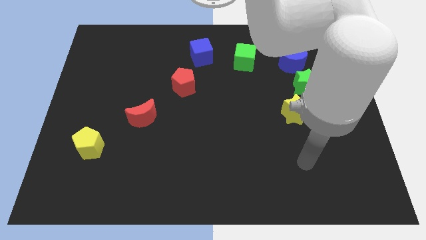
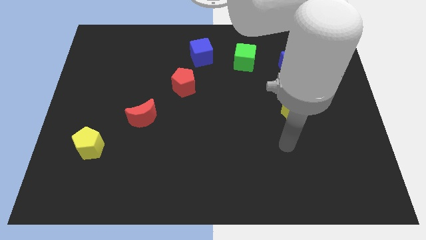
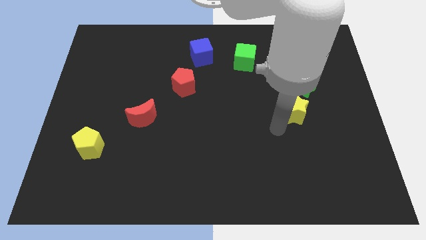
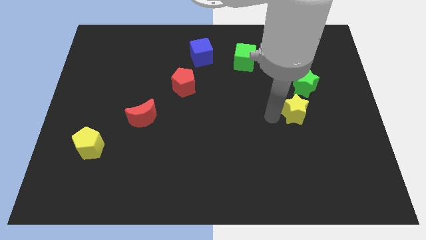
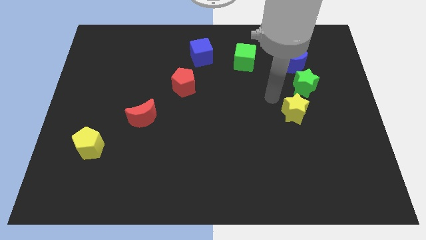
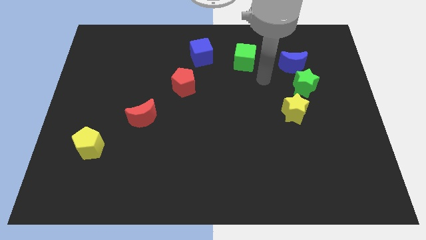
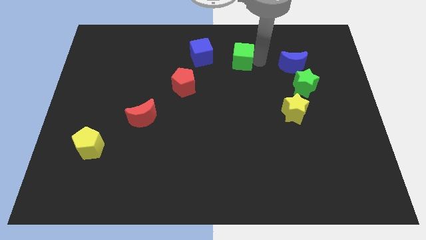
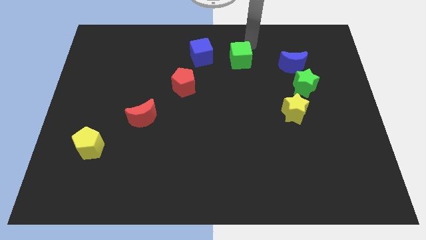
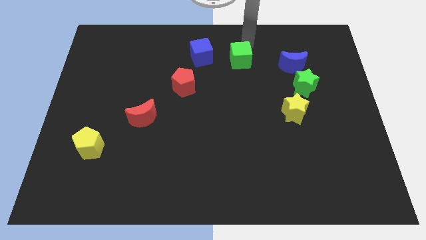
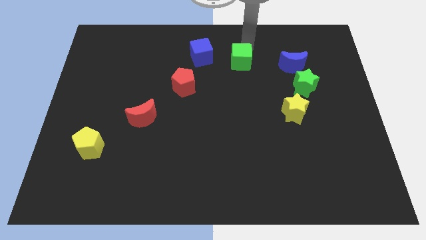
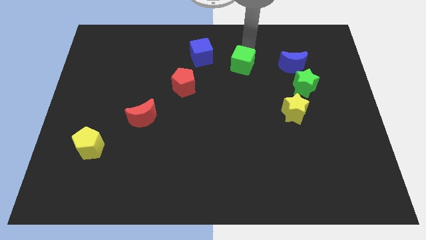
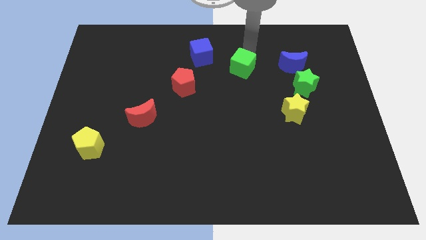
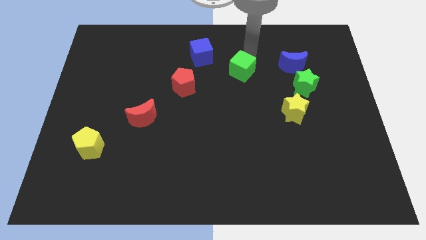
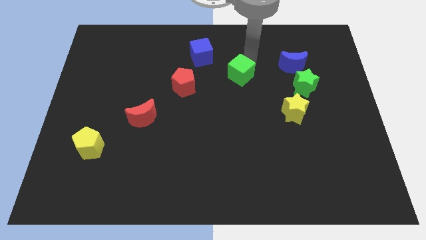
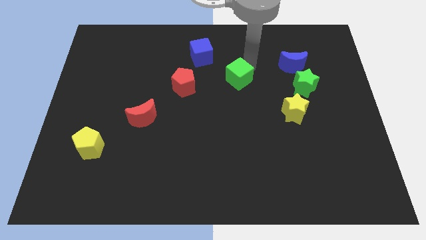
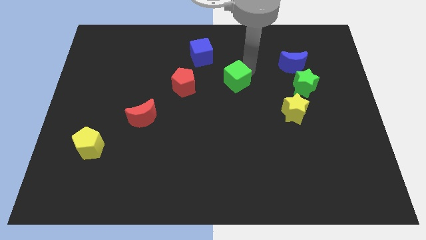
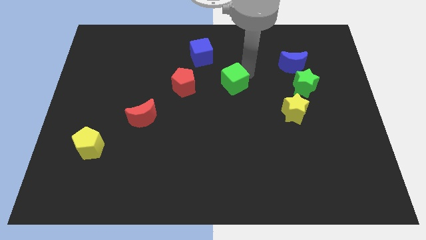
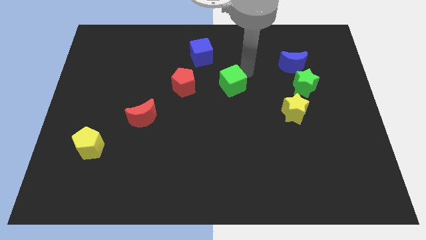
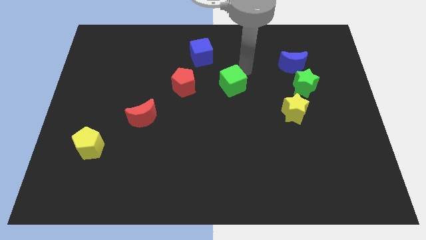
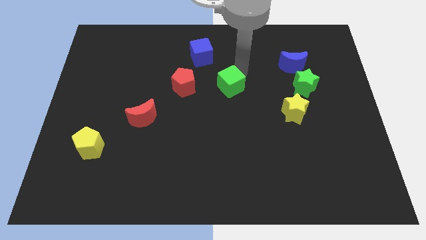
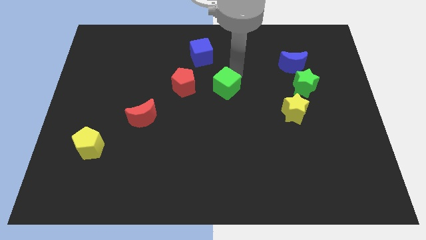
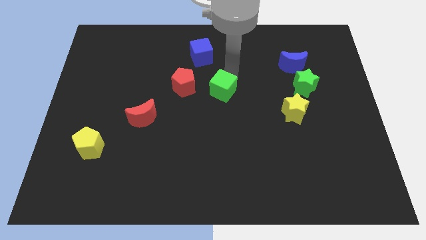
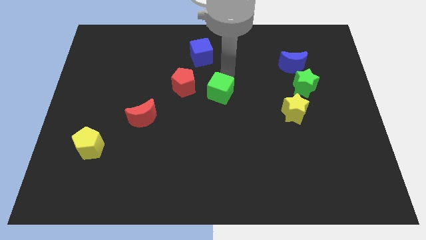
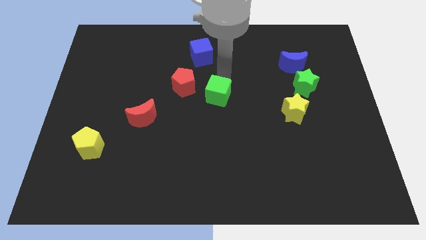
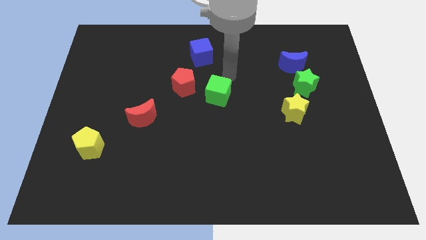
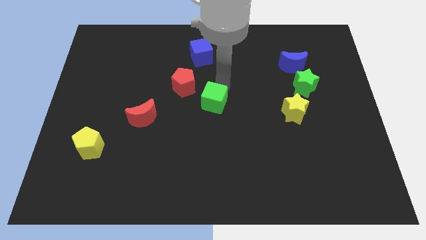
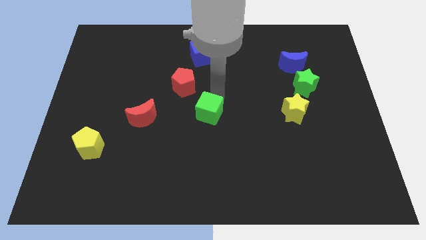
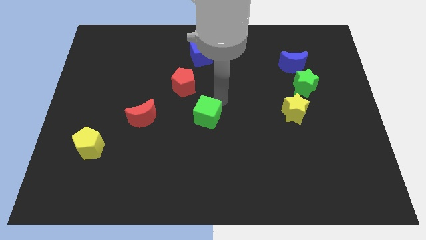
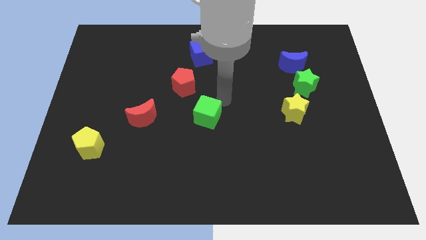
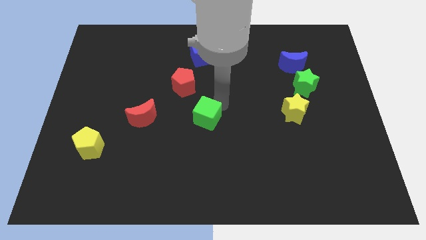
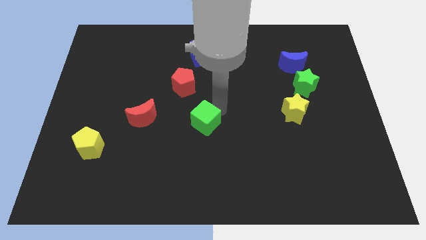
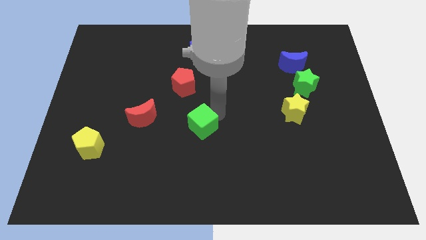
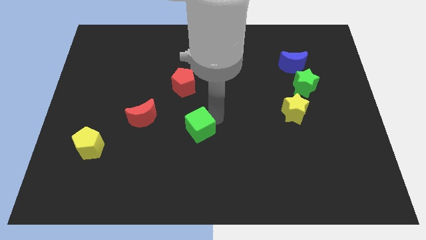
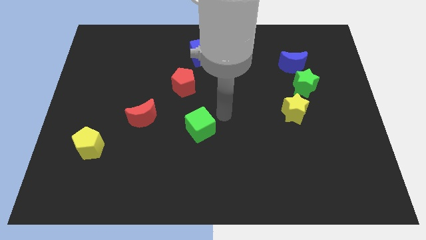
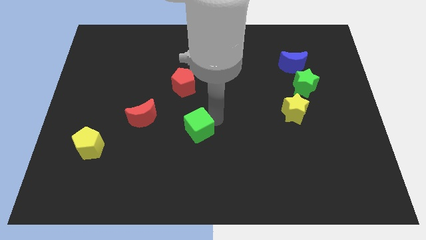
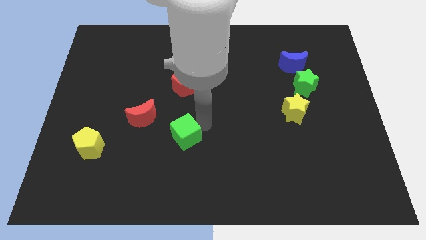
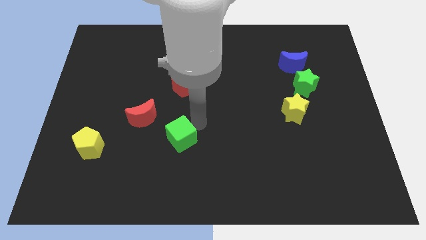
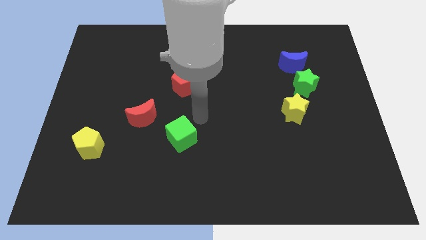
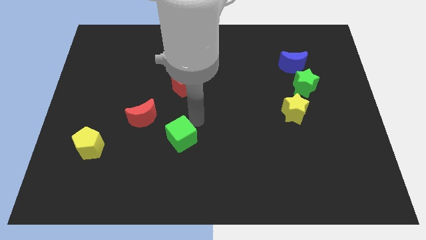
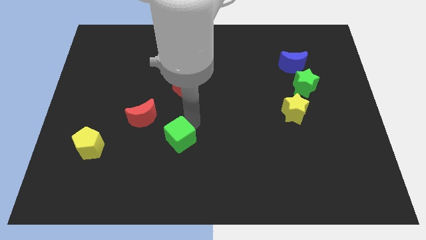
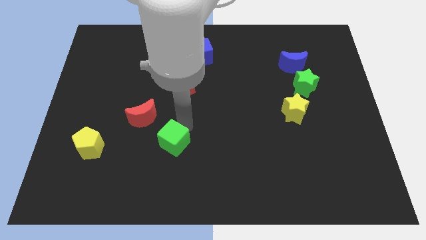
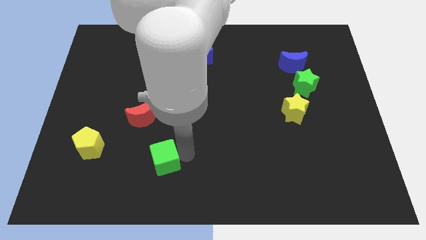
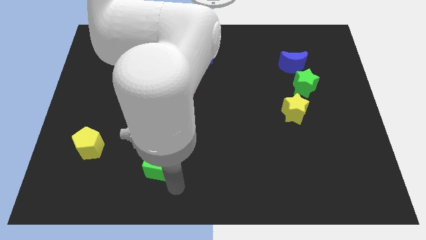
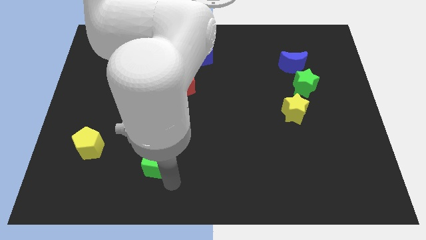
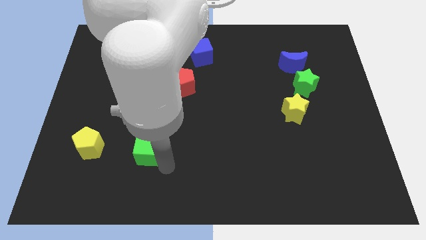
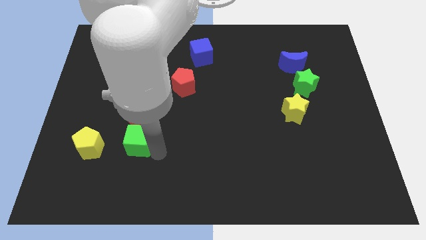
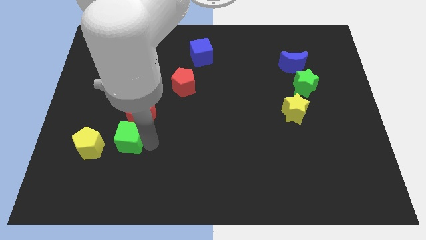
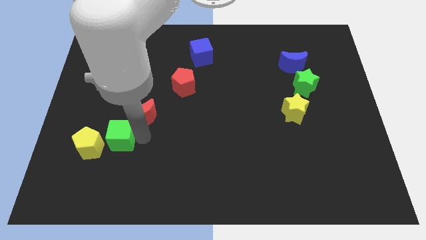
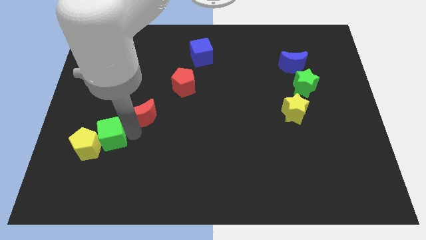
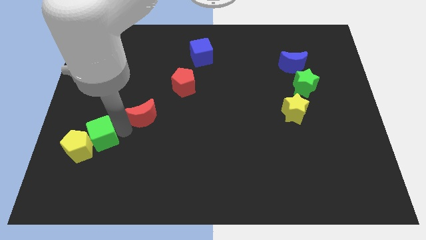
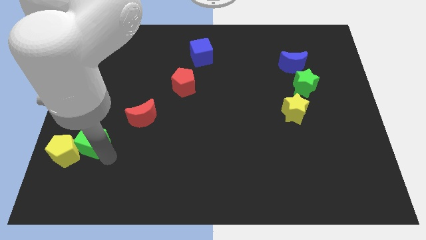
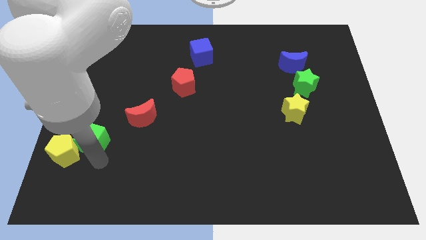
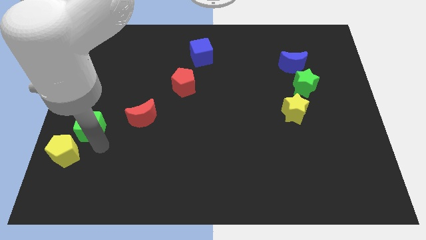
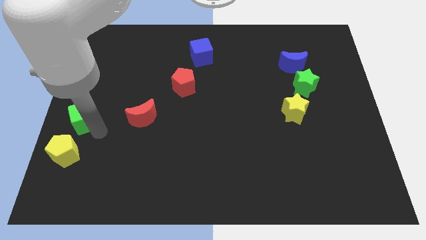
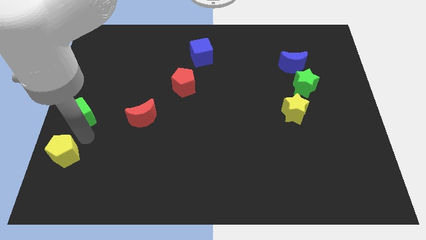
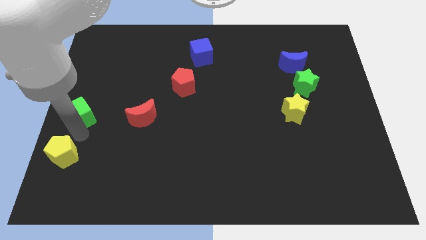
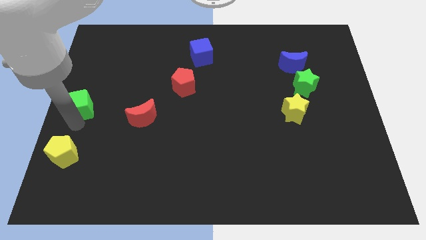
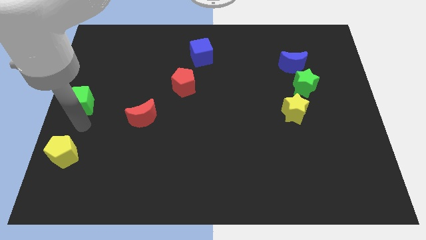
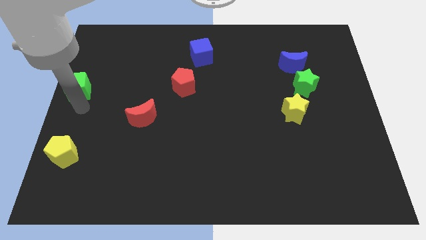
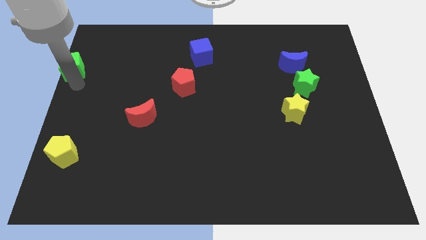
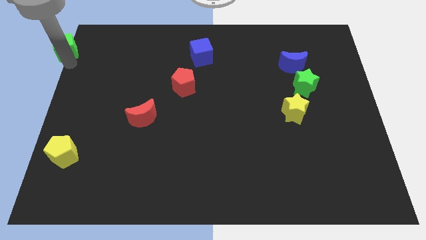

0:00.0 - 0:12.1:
push the green cube to the upper left corner
